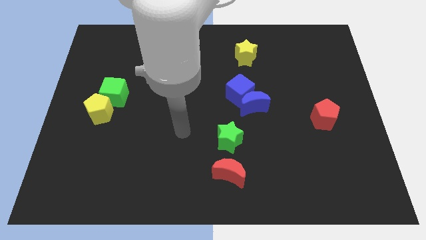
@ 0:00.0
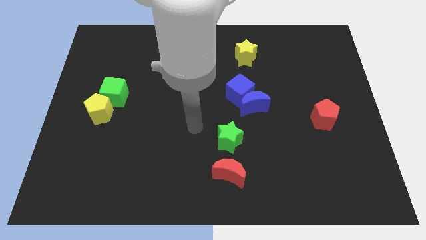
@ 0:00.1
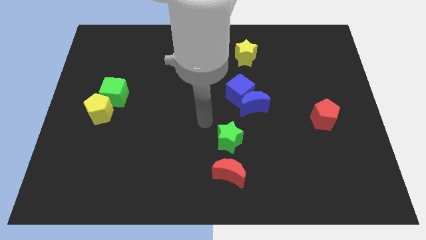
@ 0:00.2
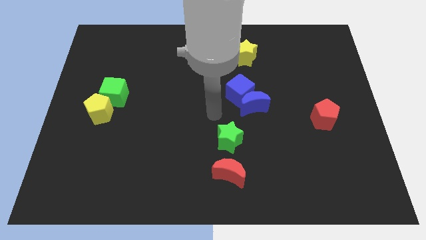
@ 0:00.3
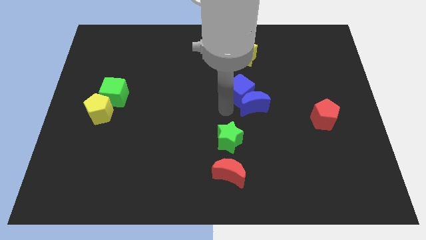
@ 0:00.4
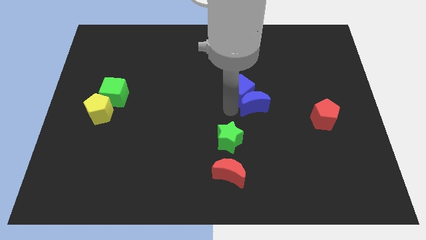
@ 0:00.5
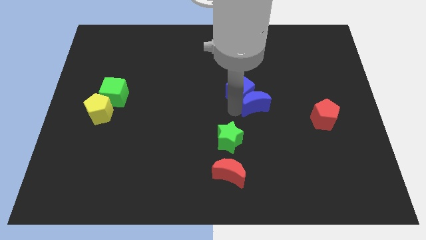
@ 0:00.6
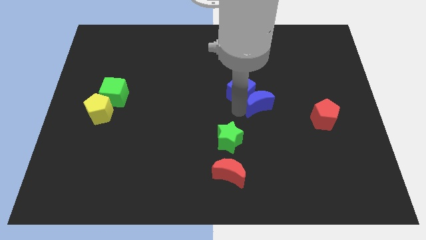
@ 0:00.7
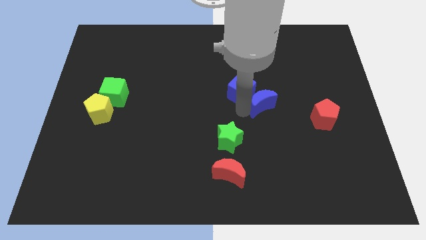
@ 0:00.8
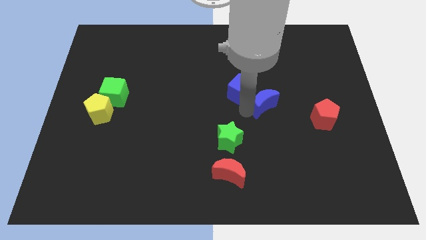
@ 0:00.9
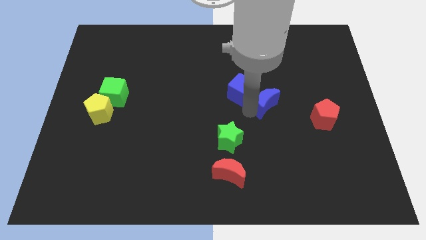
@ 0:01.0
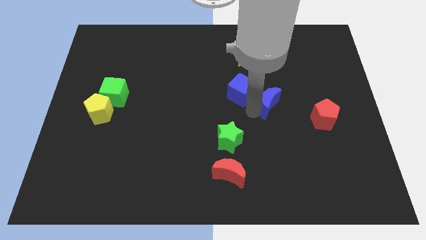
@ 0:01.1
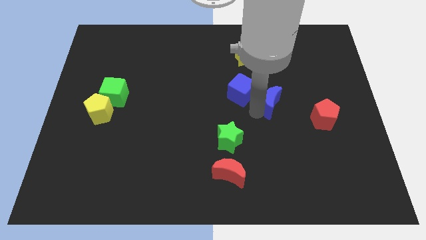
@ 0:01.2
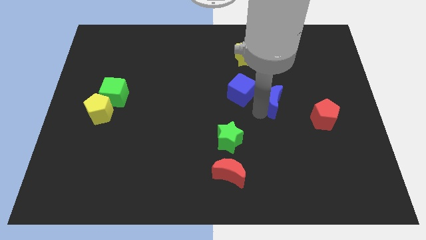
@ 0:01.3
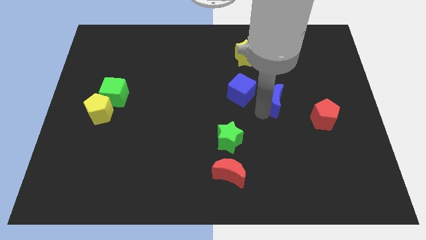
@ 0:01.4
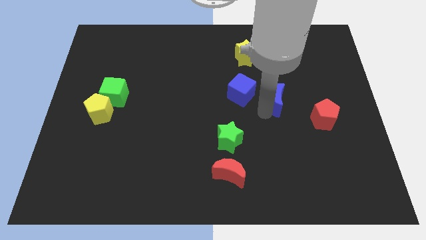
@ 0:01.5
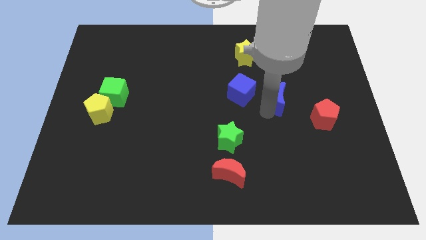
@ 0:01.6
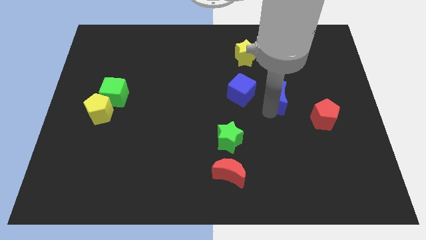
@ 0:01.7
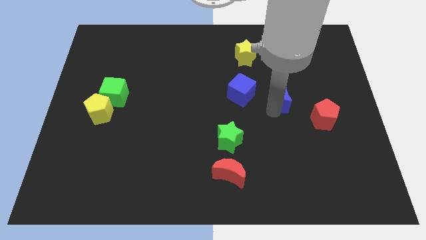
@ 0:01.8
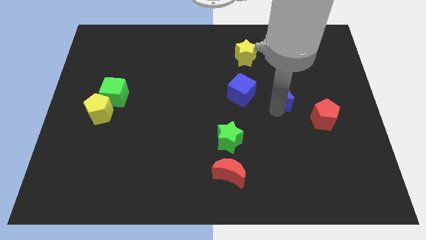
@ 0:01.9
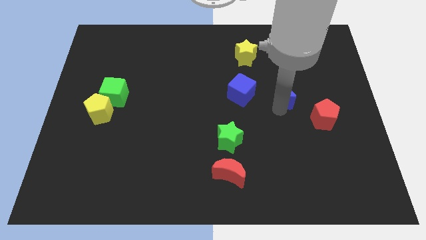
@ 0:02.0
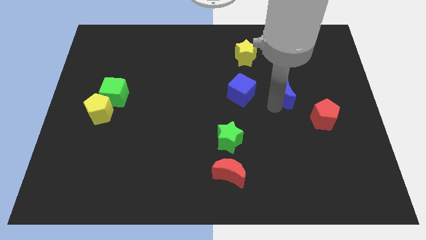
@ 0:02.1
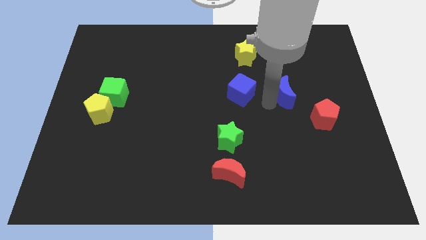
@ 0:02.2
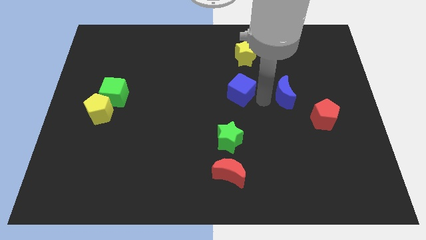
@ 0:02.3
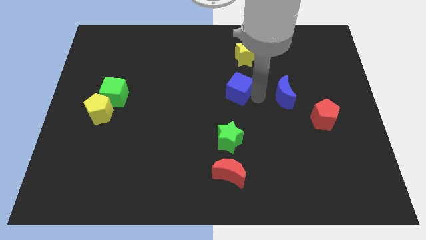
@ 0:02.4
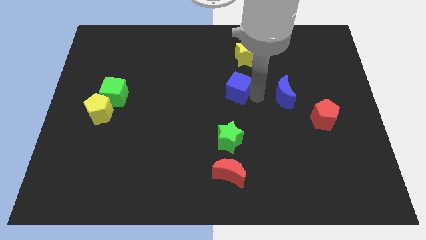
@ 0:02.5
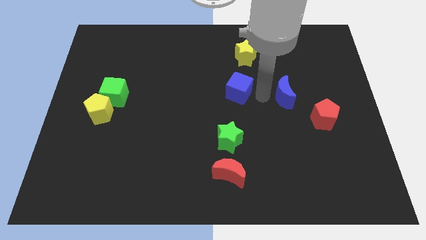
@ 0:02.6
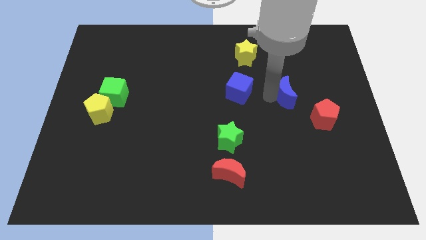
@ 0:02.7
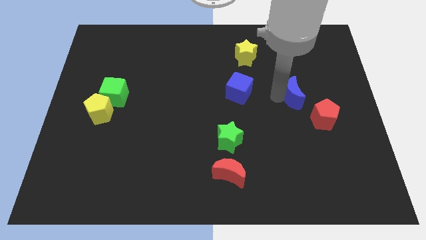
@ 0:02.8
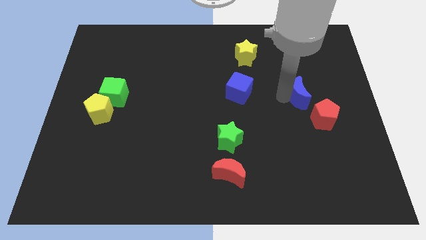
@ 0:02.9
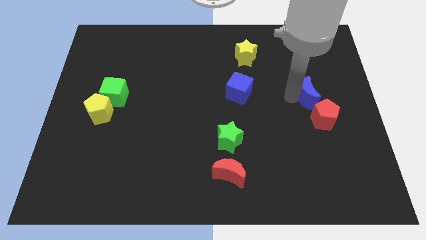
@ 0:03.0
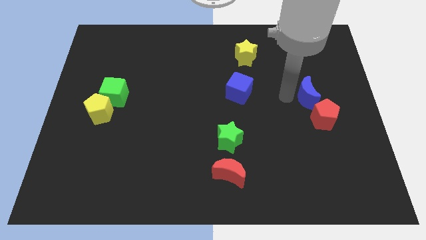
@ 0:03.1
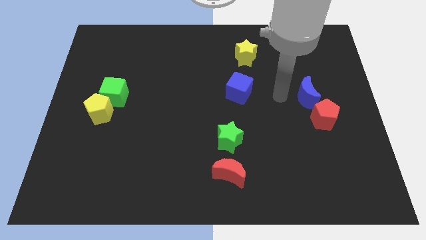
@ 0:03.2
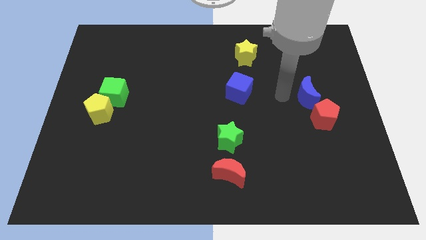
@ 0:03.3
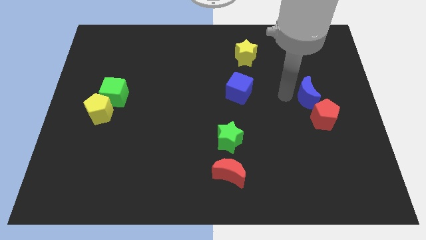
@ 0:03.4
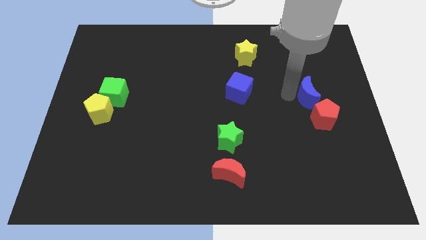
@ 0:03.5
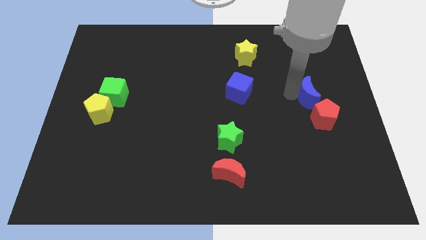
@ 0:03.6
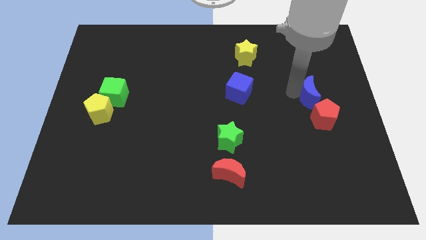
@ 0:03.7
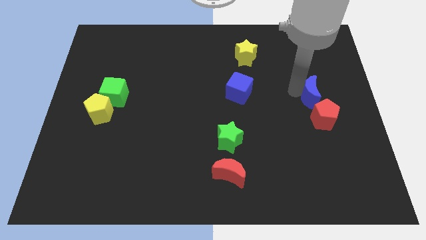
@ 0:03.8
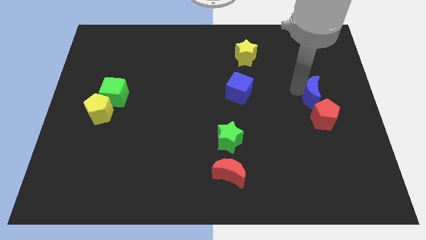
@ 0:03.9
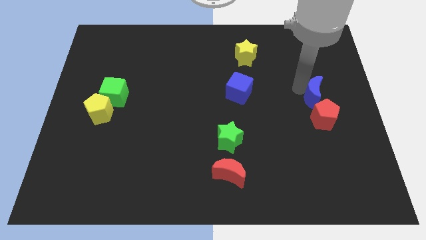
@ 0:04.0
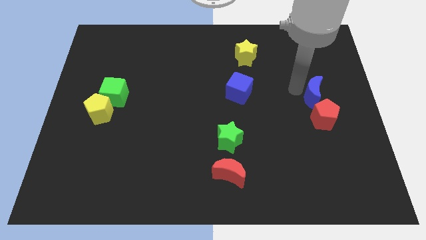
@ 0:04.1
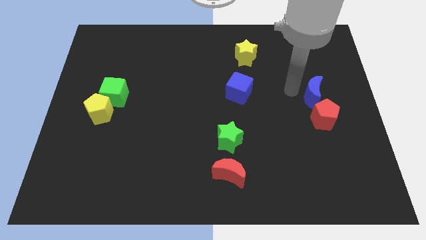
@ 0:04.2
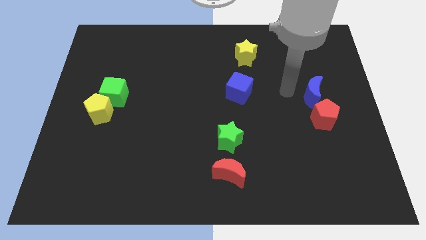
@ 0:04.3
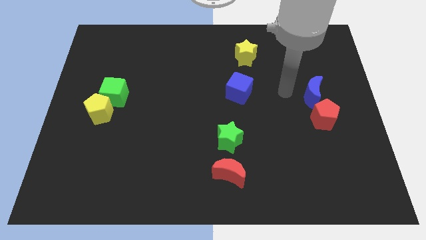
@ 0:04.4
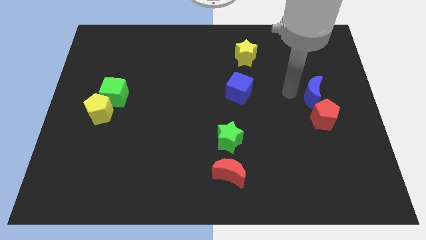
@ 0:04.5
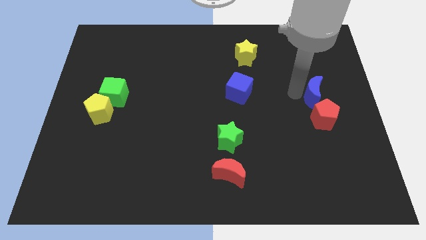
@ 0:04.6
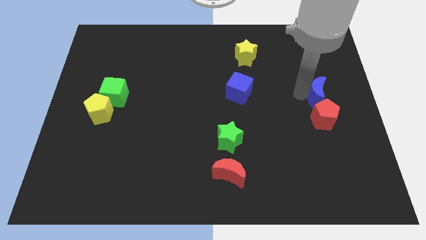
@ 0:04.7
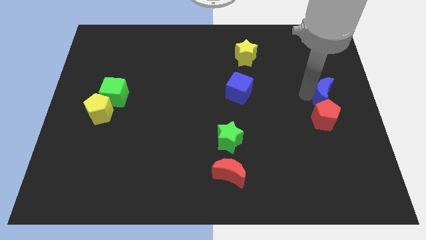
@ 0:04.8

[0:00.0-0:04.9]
slide the blue moon to the center right

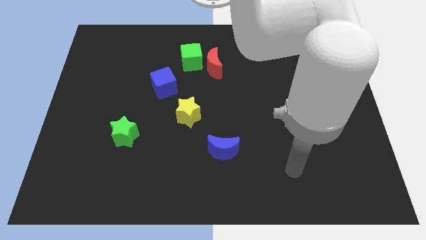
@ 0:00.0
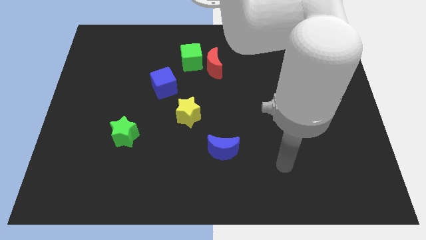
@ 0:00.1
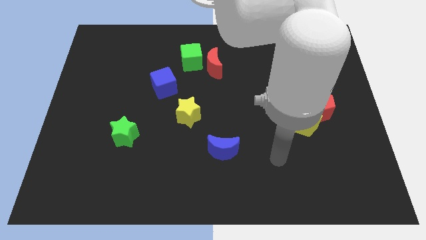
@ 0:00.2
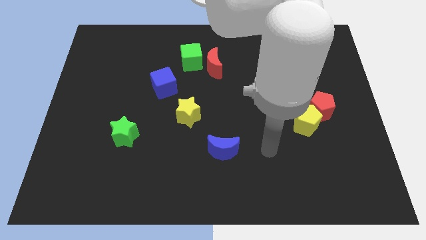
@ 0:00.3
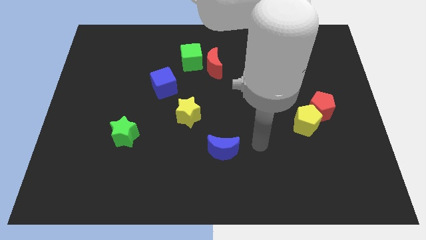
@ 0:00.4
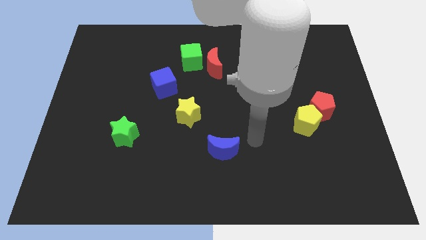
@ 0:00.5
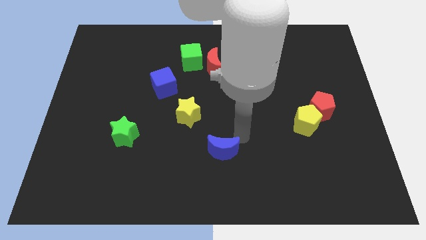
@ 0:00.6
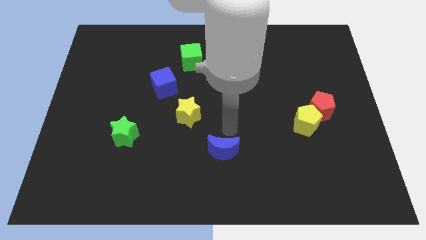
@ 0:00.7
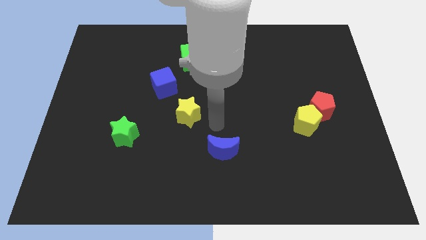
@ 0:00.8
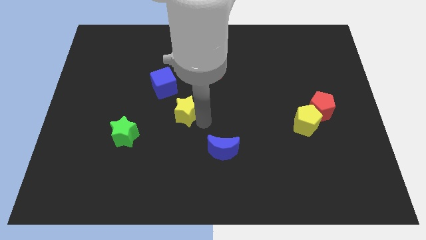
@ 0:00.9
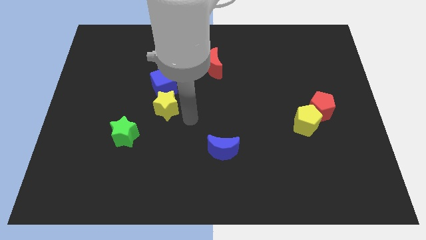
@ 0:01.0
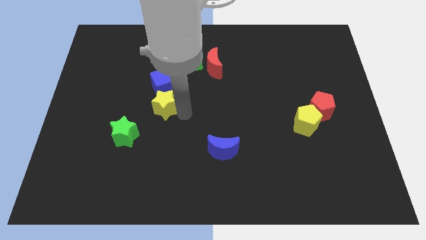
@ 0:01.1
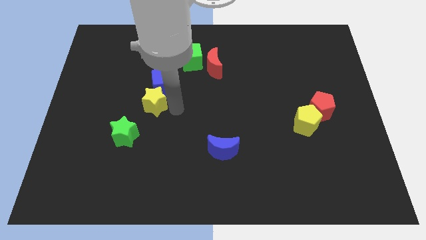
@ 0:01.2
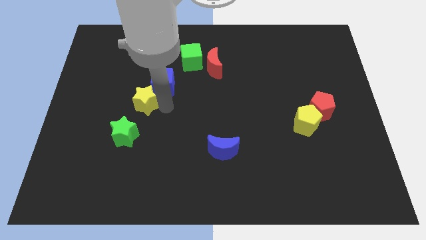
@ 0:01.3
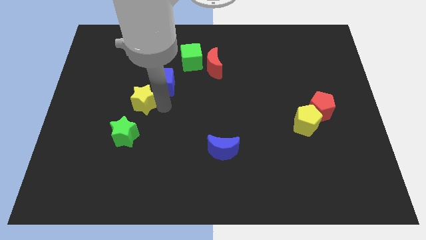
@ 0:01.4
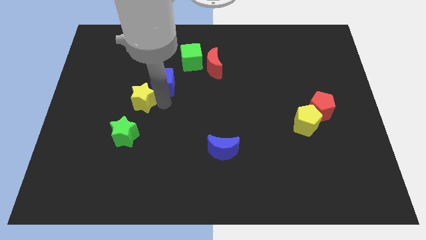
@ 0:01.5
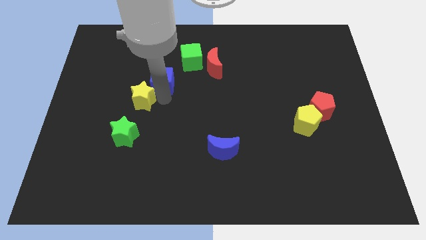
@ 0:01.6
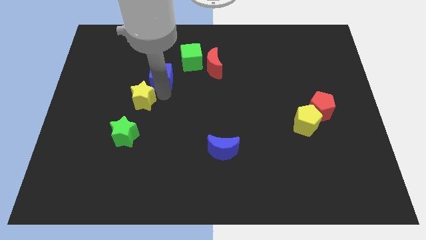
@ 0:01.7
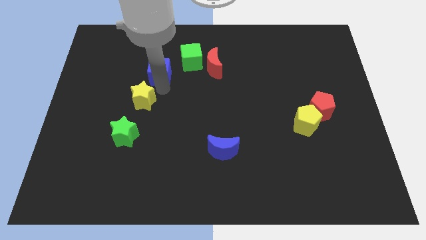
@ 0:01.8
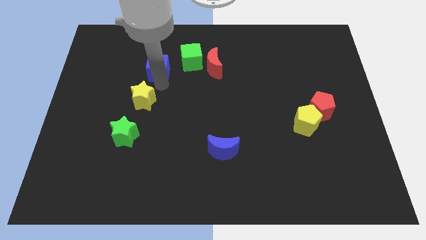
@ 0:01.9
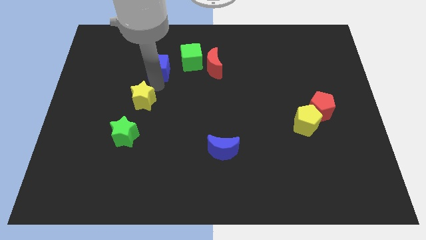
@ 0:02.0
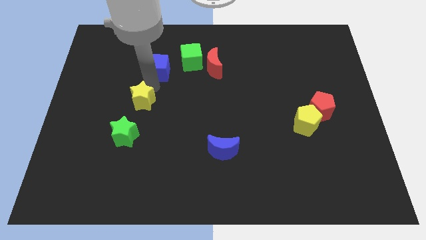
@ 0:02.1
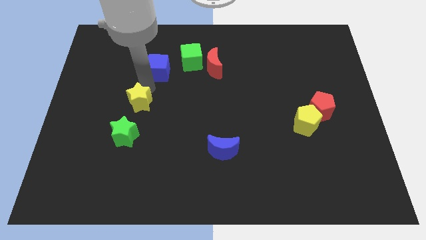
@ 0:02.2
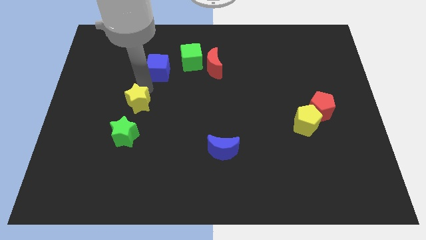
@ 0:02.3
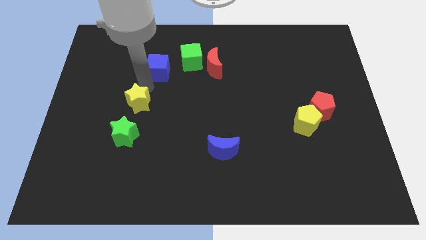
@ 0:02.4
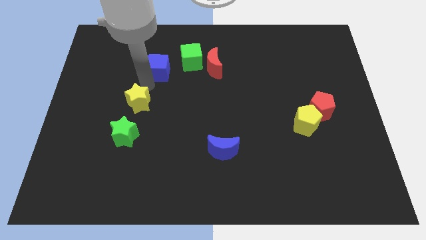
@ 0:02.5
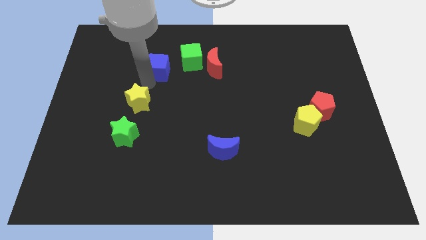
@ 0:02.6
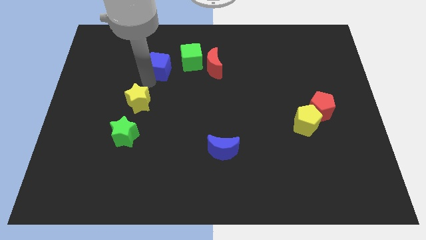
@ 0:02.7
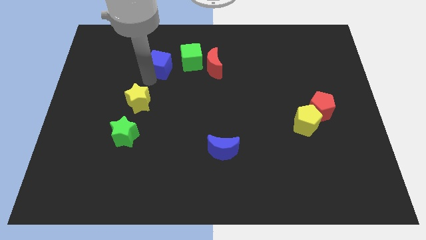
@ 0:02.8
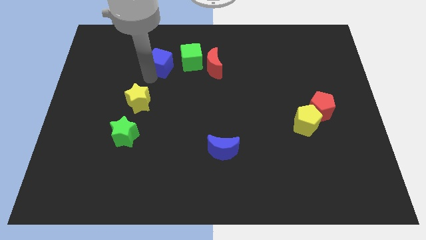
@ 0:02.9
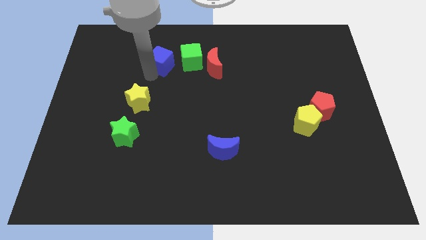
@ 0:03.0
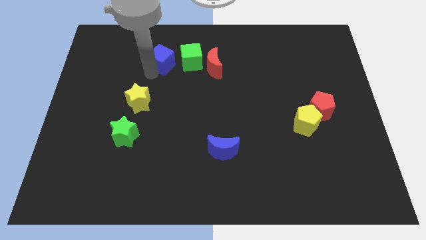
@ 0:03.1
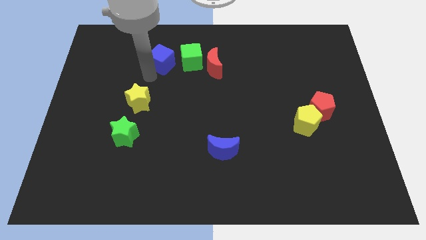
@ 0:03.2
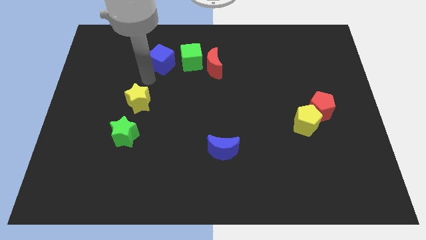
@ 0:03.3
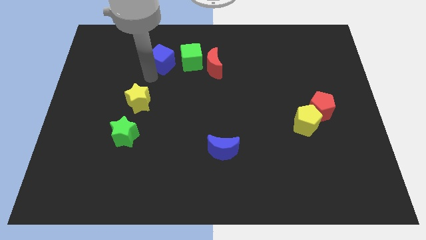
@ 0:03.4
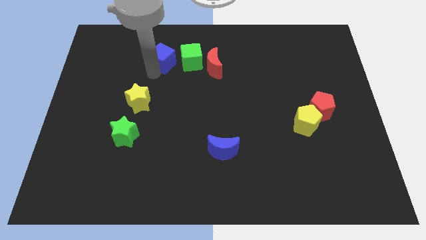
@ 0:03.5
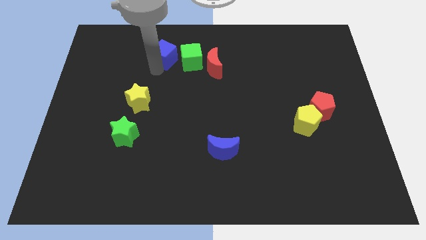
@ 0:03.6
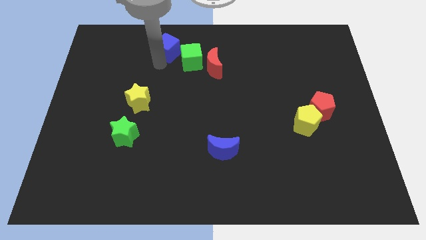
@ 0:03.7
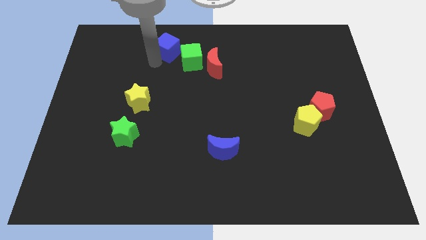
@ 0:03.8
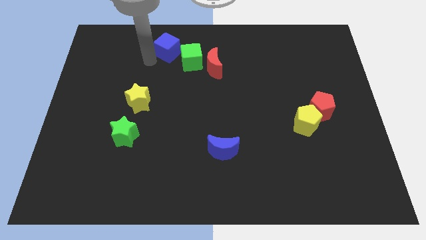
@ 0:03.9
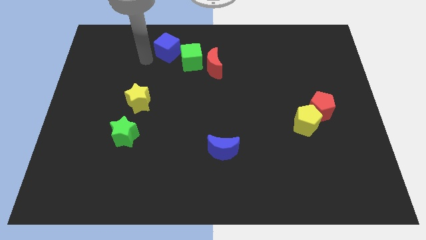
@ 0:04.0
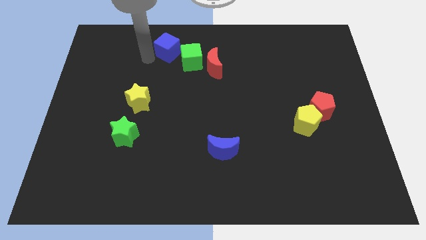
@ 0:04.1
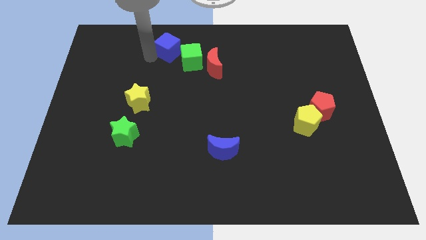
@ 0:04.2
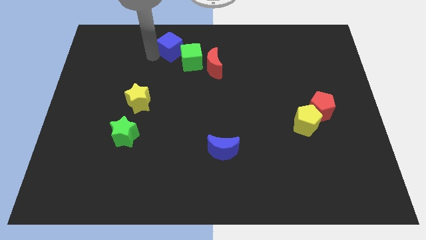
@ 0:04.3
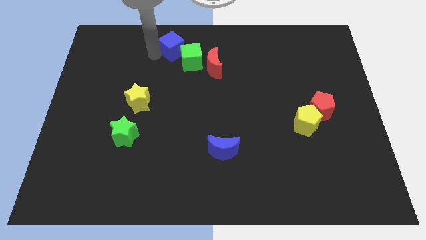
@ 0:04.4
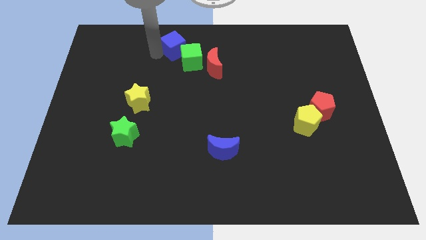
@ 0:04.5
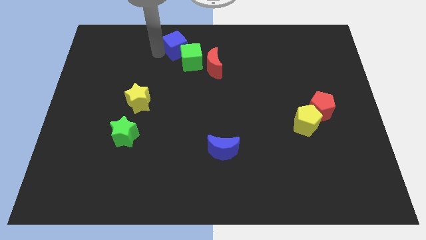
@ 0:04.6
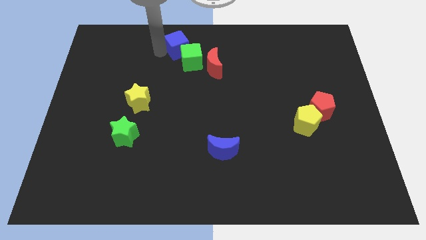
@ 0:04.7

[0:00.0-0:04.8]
push the blue cube to the towards your base
